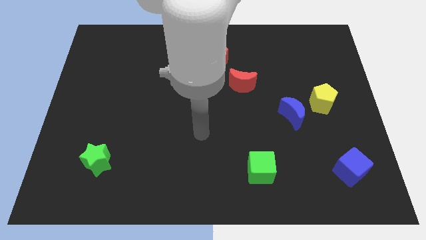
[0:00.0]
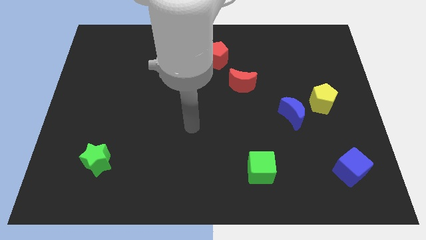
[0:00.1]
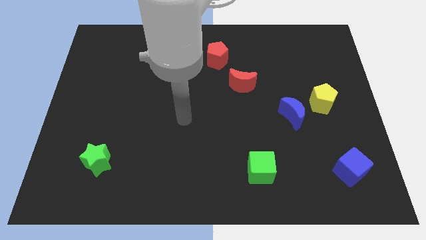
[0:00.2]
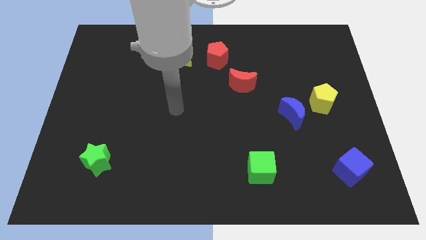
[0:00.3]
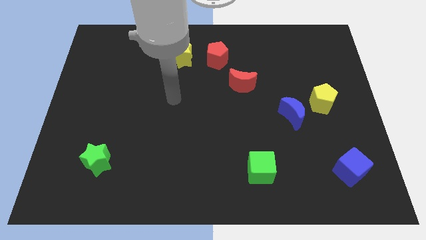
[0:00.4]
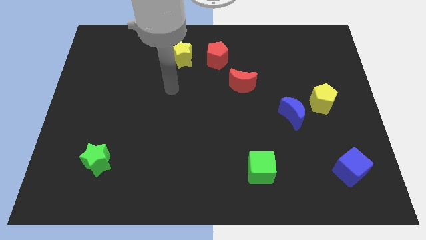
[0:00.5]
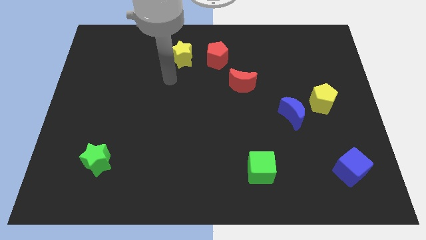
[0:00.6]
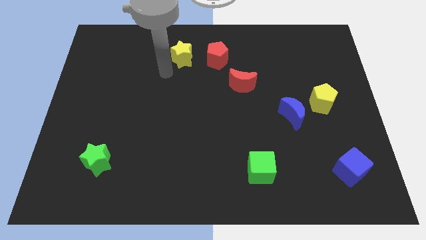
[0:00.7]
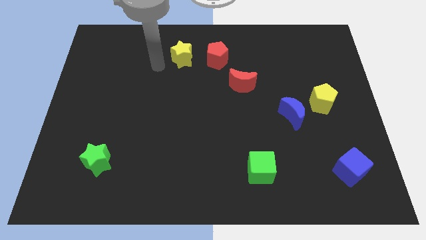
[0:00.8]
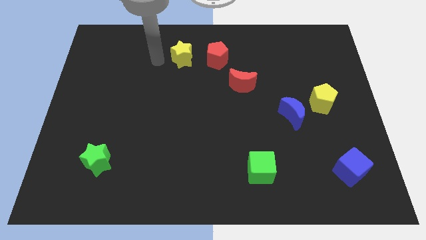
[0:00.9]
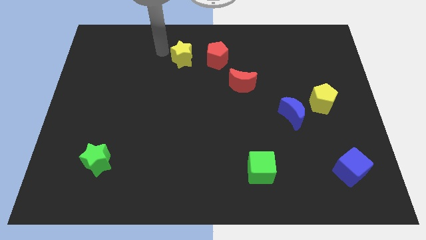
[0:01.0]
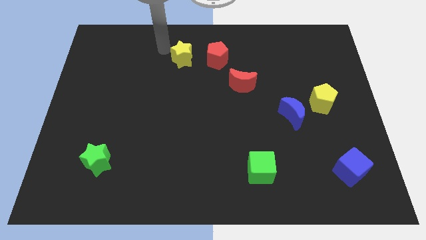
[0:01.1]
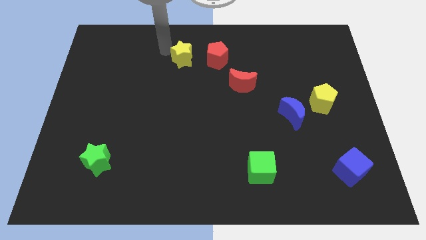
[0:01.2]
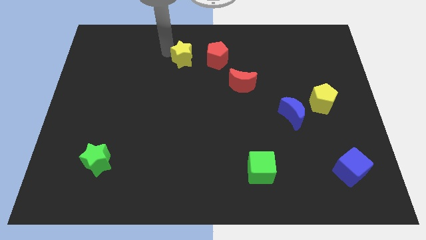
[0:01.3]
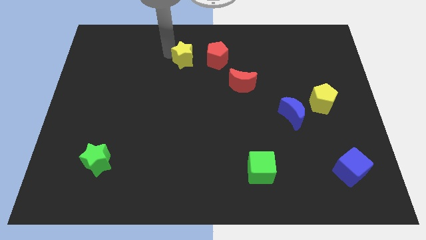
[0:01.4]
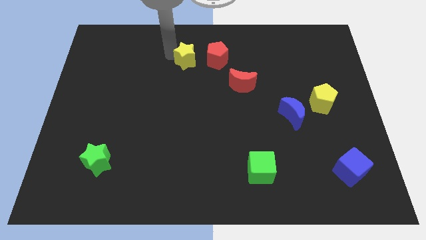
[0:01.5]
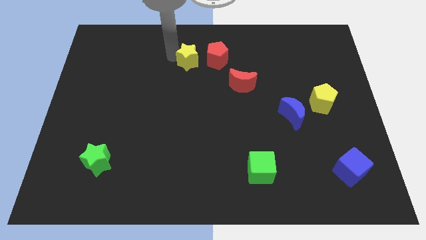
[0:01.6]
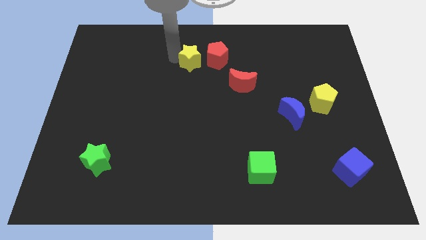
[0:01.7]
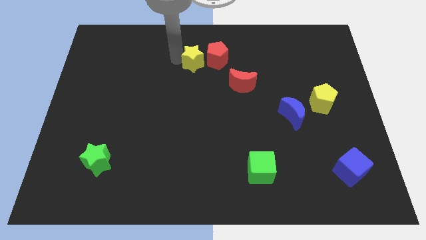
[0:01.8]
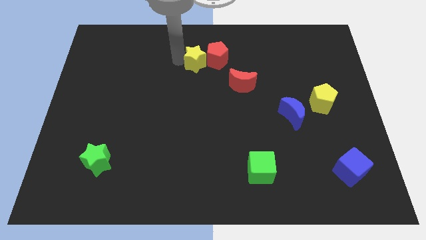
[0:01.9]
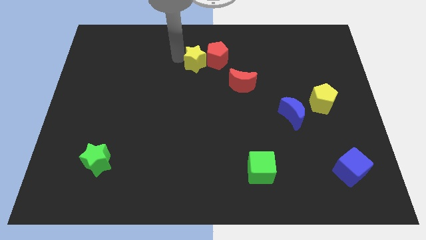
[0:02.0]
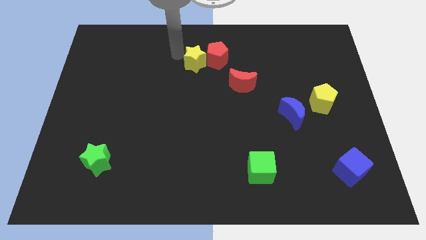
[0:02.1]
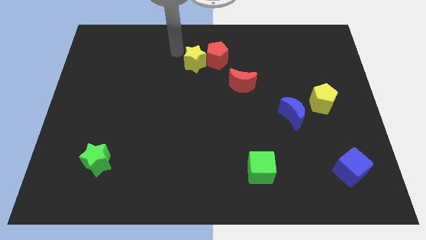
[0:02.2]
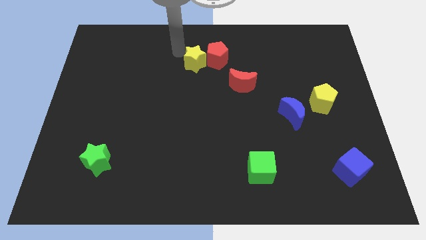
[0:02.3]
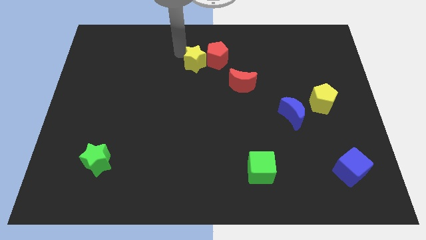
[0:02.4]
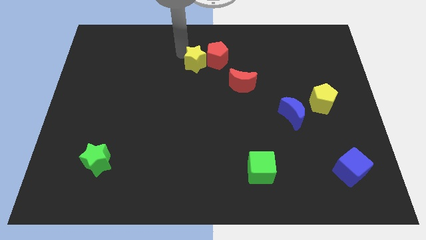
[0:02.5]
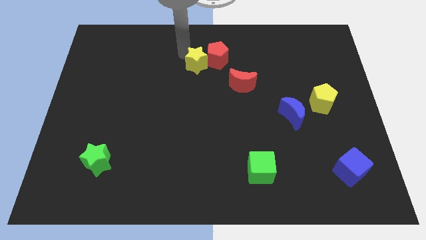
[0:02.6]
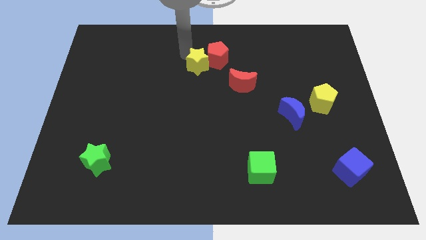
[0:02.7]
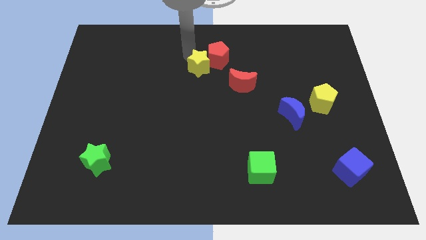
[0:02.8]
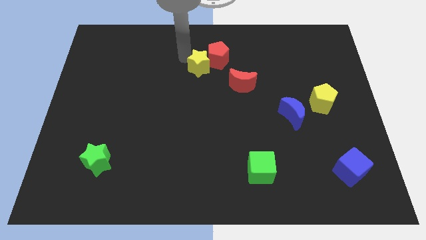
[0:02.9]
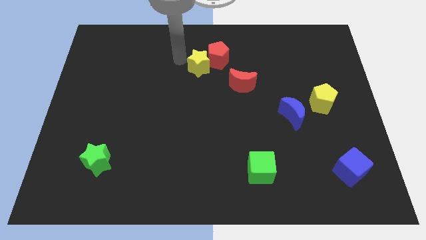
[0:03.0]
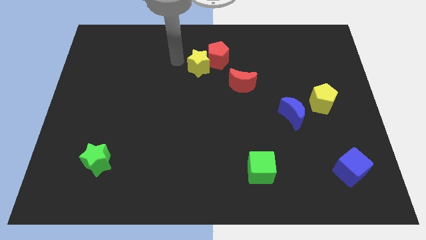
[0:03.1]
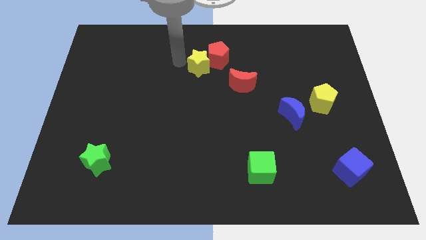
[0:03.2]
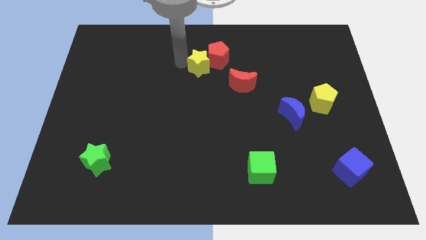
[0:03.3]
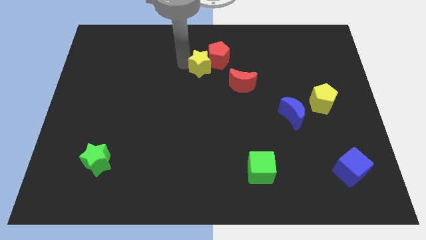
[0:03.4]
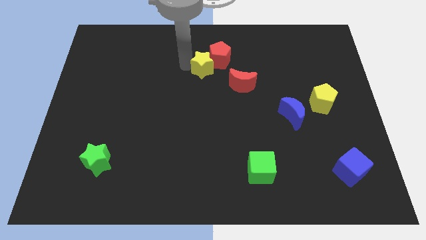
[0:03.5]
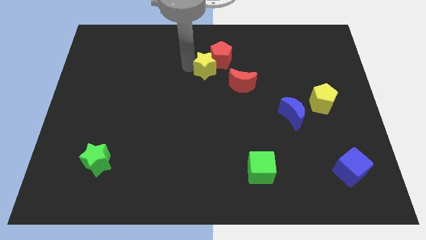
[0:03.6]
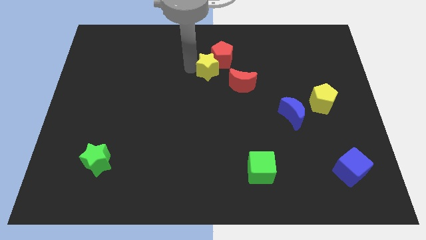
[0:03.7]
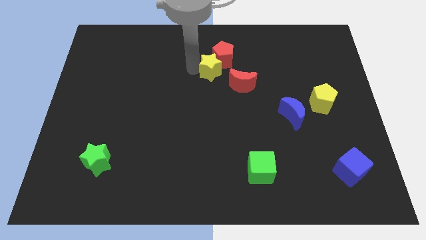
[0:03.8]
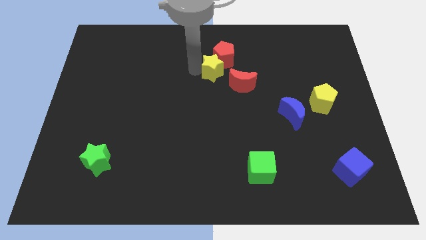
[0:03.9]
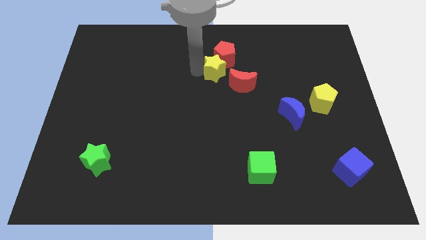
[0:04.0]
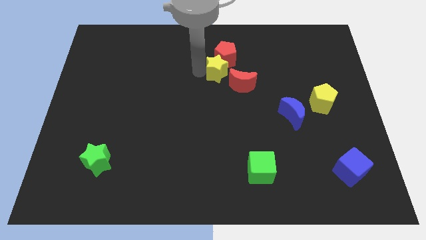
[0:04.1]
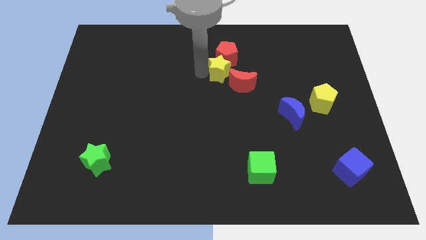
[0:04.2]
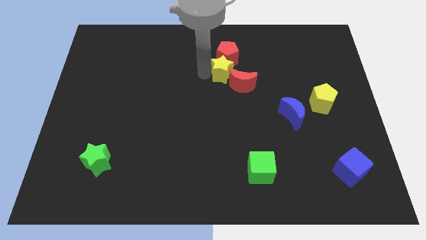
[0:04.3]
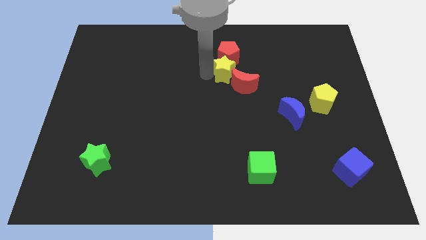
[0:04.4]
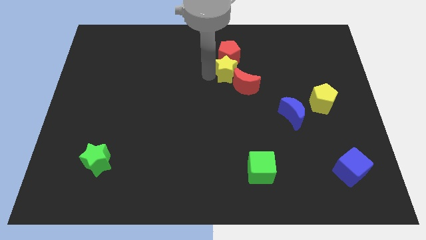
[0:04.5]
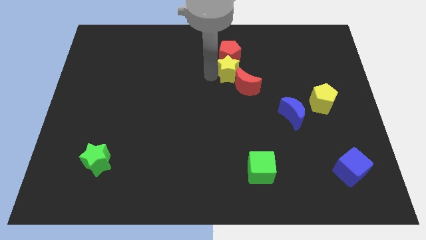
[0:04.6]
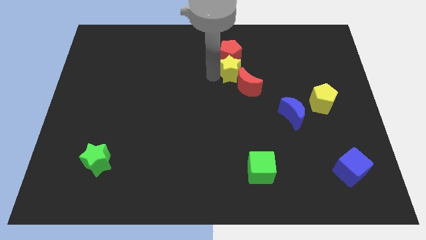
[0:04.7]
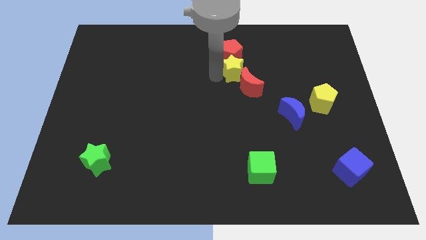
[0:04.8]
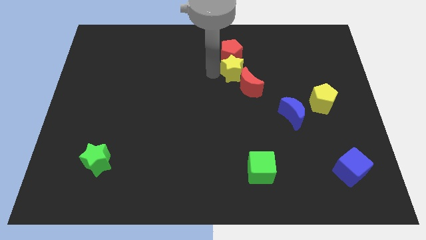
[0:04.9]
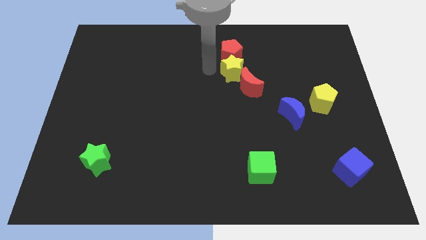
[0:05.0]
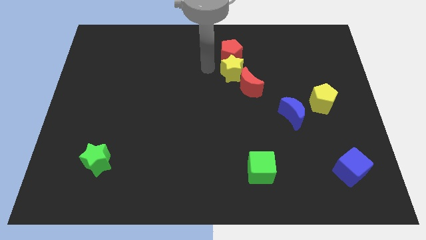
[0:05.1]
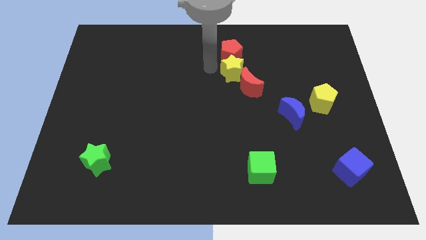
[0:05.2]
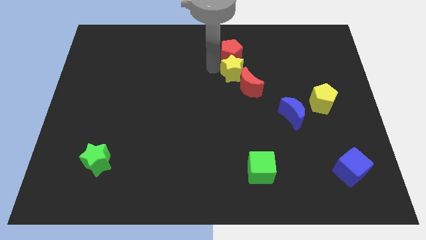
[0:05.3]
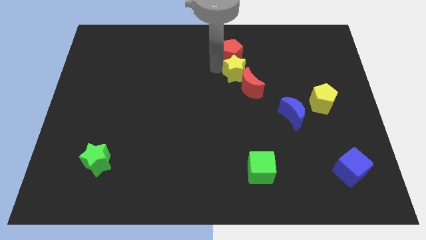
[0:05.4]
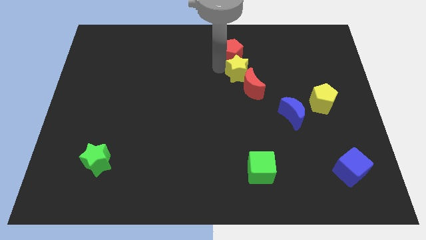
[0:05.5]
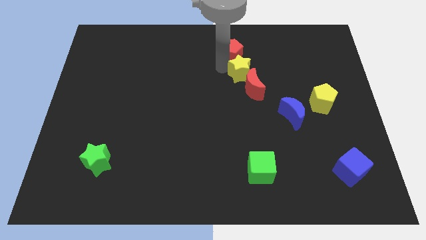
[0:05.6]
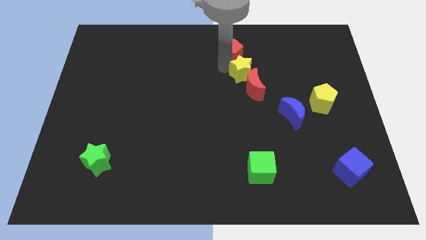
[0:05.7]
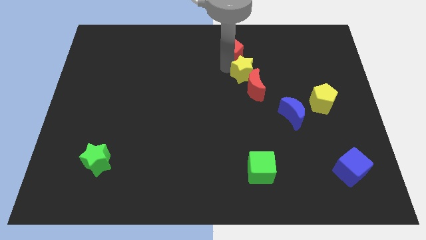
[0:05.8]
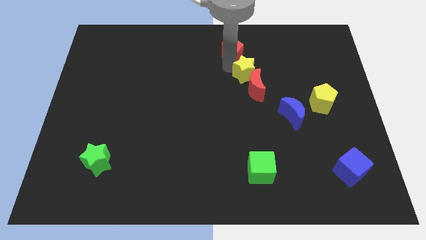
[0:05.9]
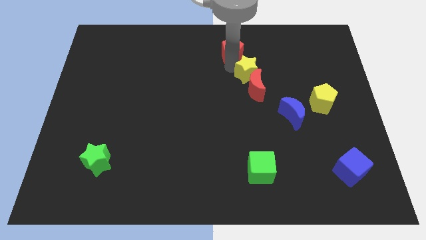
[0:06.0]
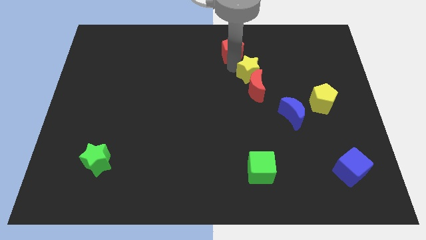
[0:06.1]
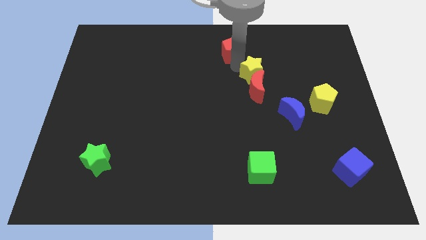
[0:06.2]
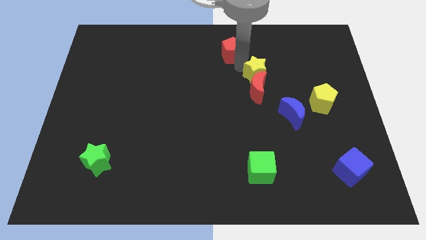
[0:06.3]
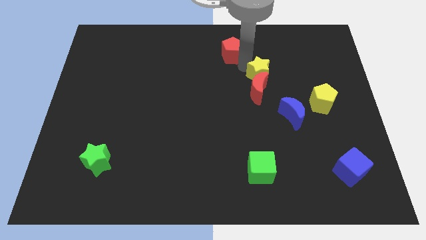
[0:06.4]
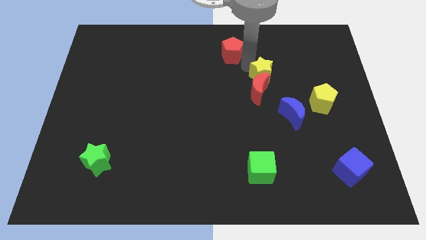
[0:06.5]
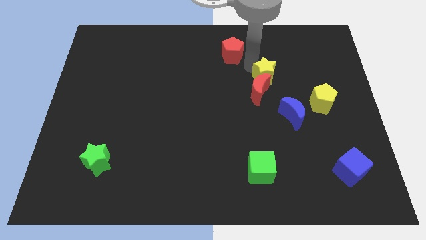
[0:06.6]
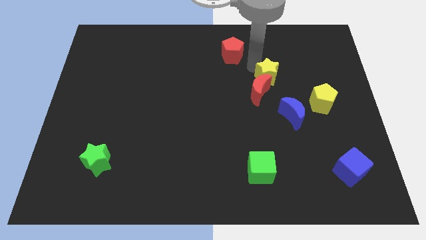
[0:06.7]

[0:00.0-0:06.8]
slide the yellow star to the top of the blue moon

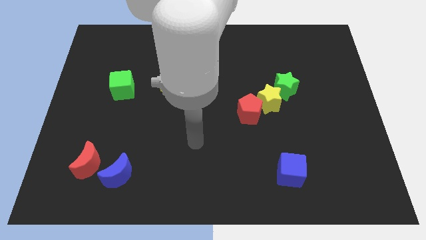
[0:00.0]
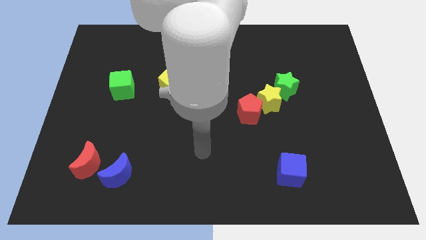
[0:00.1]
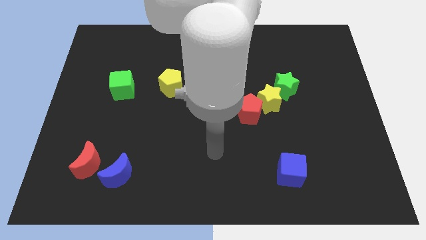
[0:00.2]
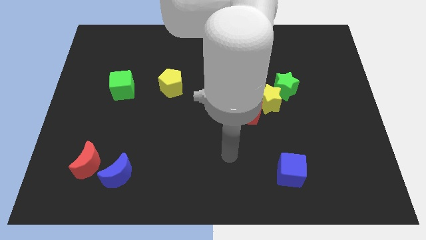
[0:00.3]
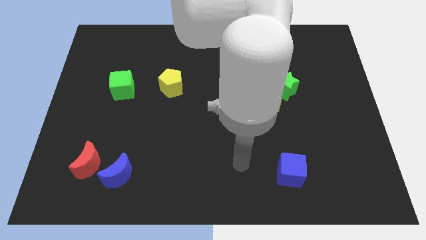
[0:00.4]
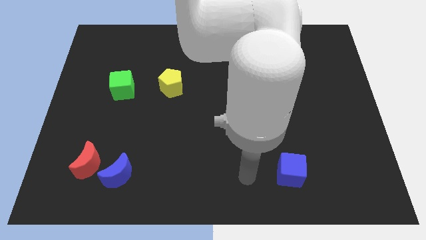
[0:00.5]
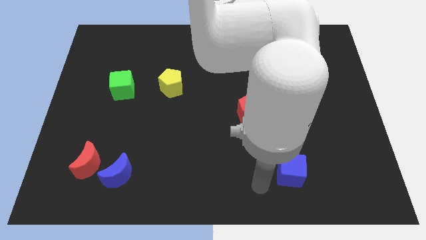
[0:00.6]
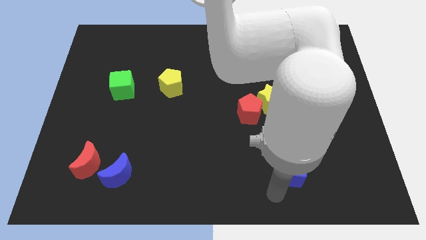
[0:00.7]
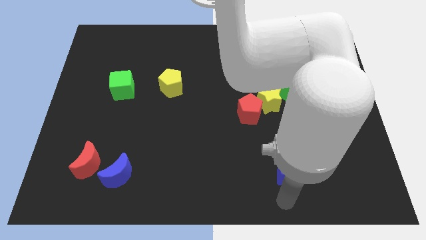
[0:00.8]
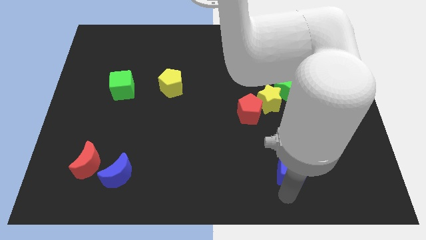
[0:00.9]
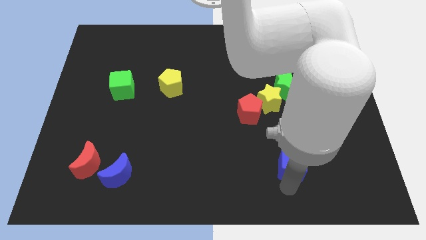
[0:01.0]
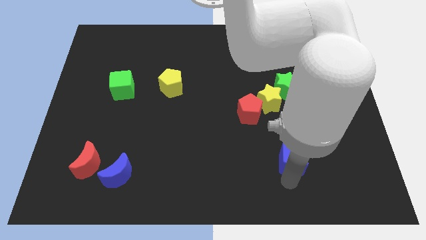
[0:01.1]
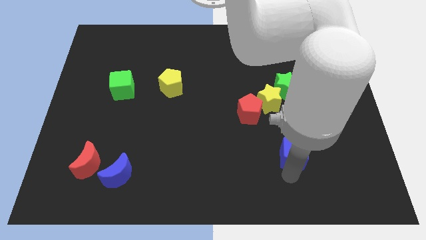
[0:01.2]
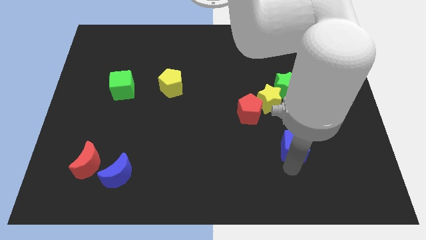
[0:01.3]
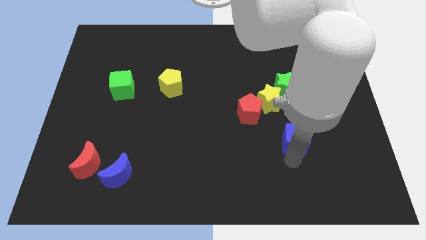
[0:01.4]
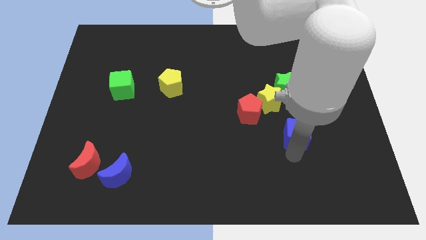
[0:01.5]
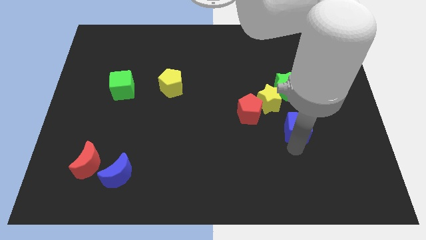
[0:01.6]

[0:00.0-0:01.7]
move the blue cube just right of the red pentagon
